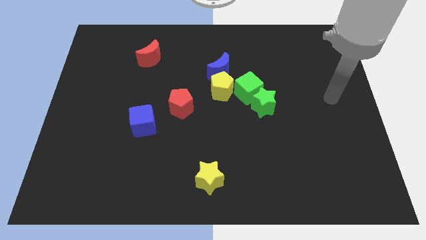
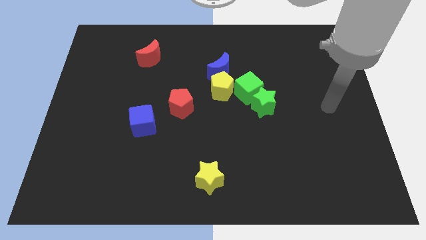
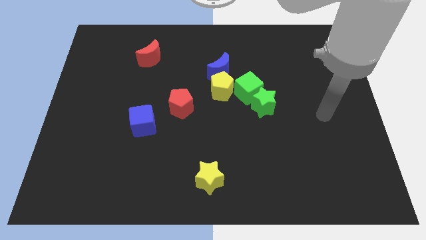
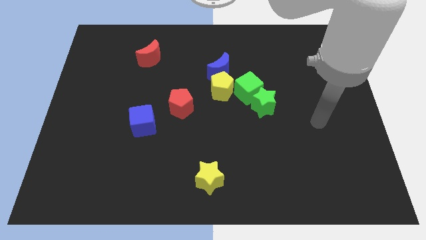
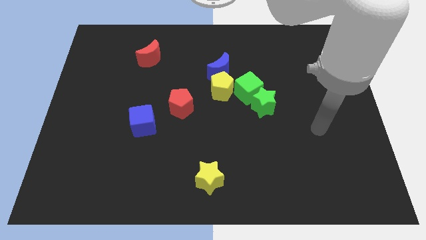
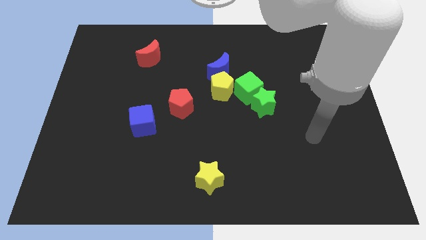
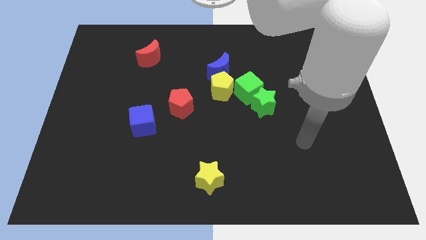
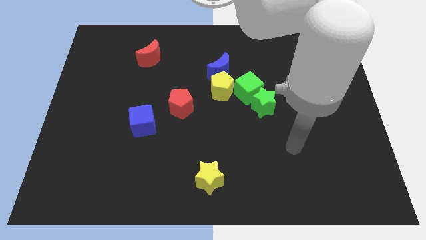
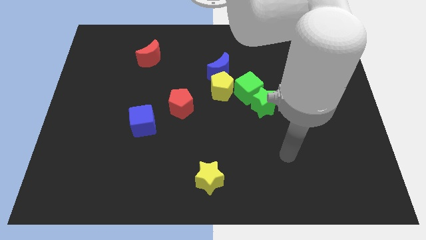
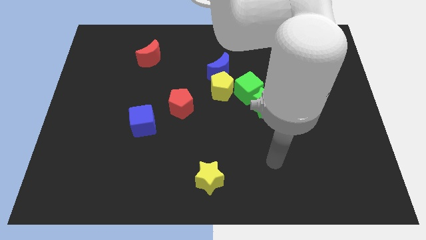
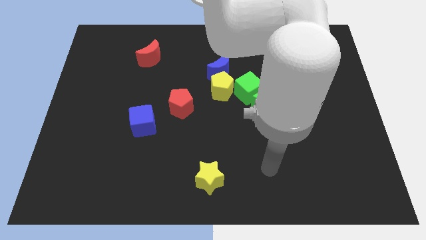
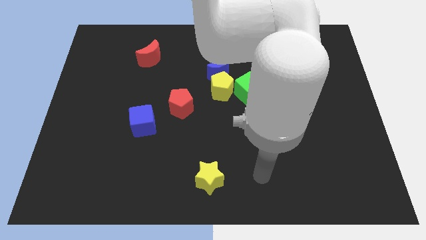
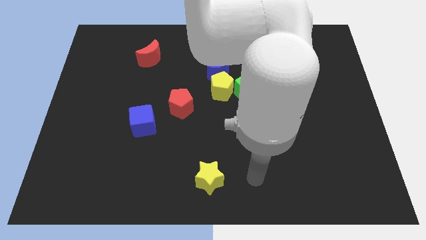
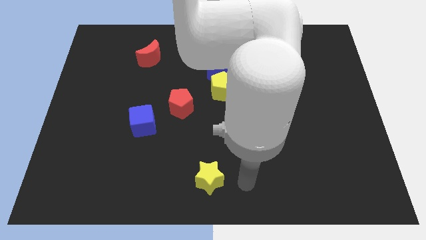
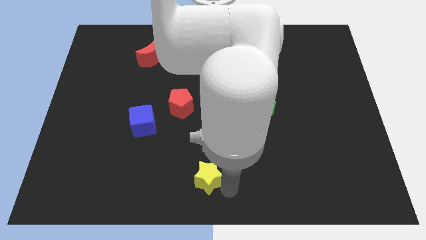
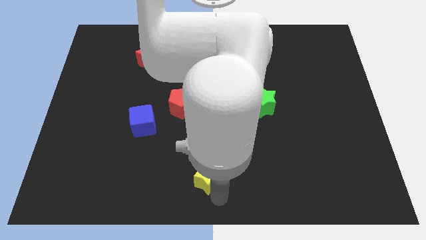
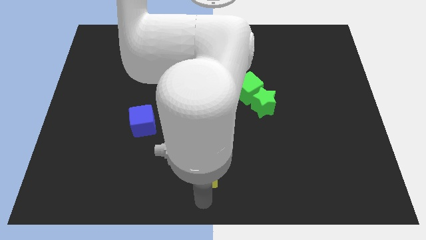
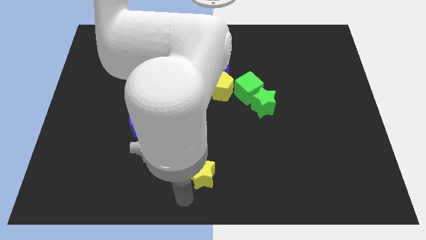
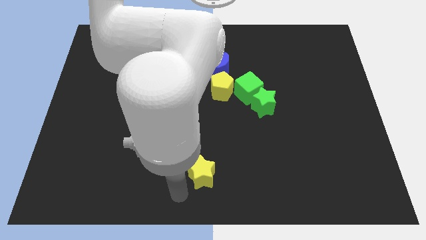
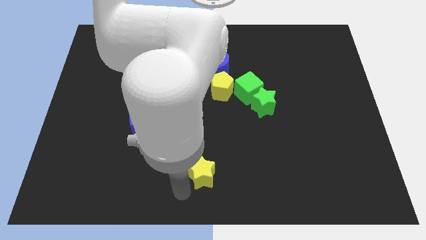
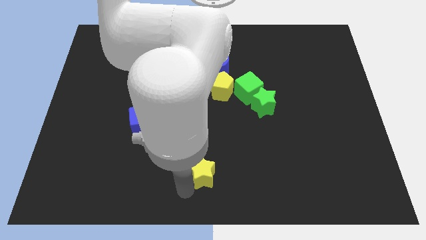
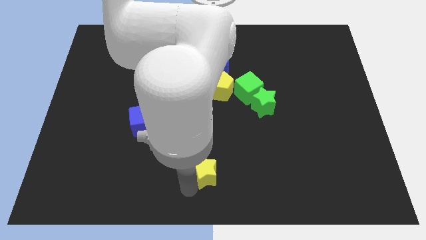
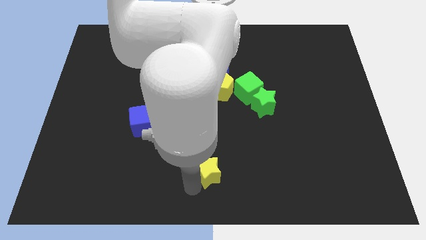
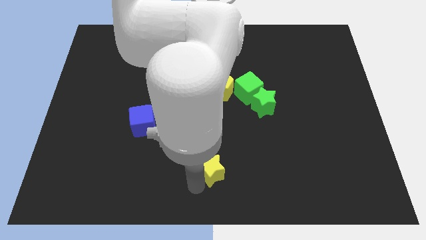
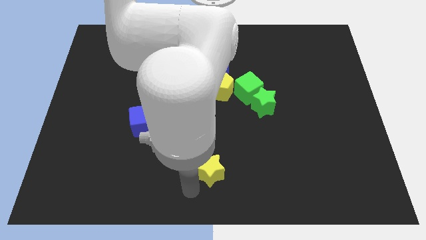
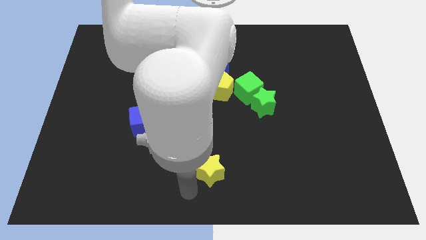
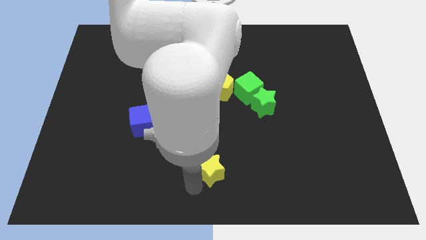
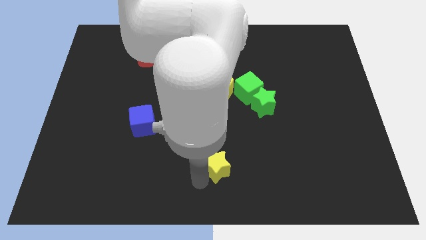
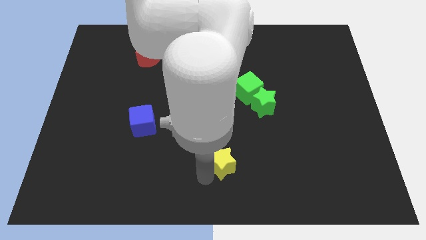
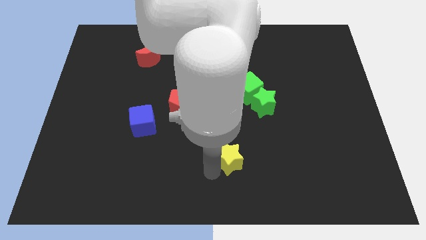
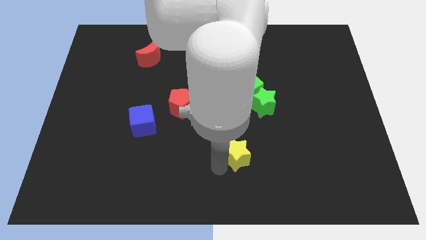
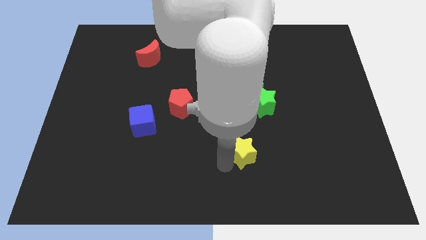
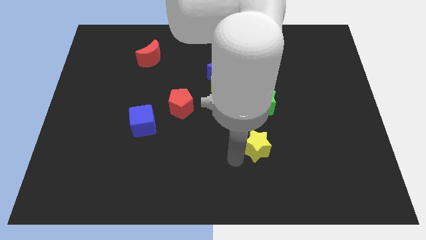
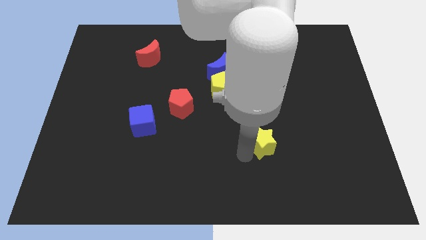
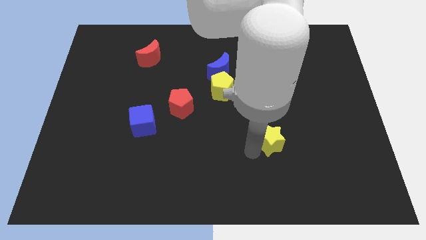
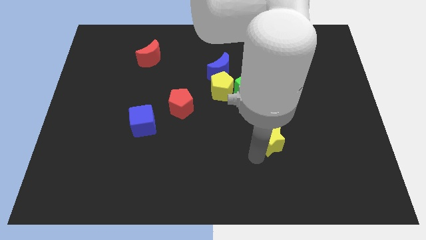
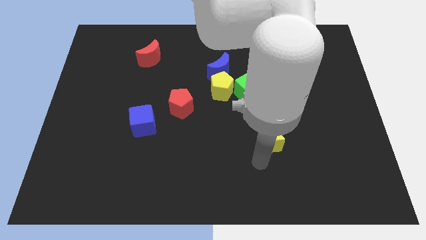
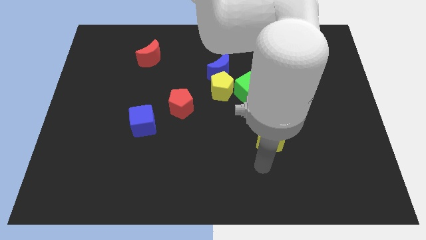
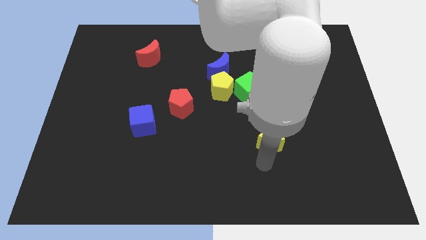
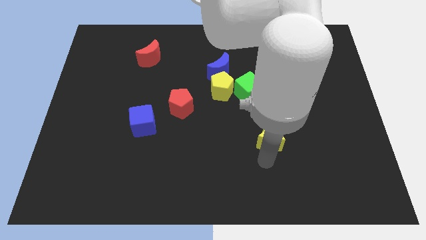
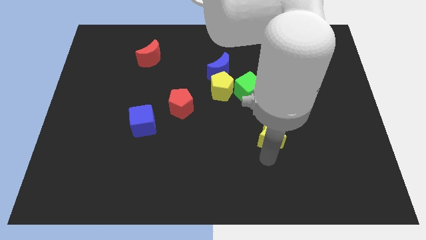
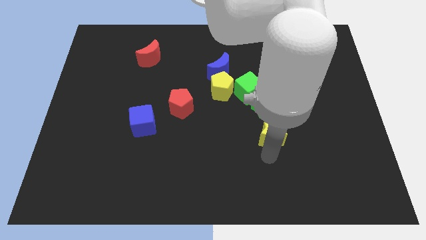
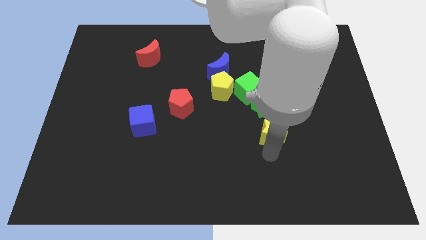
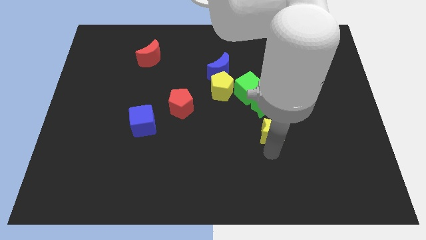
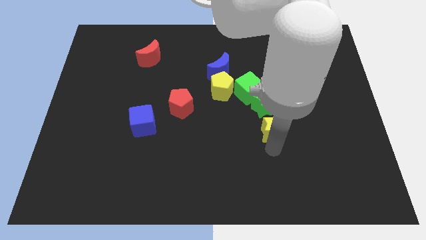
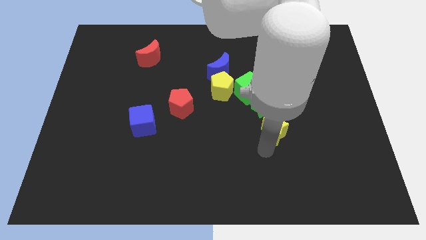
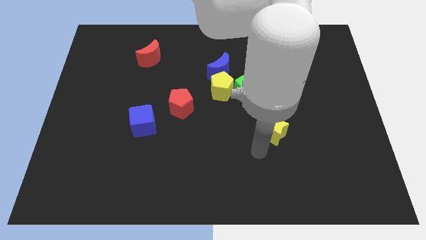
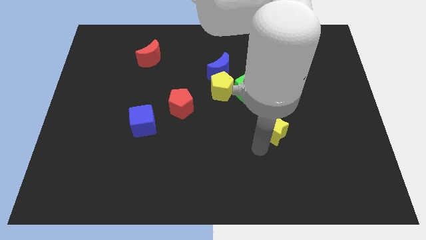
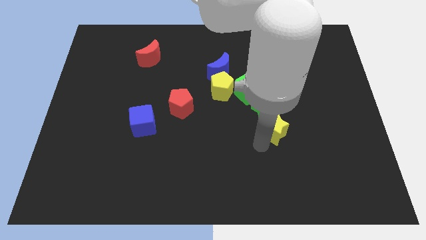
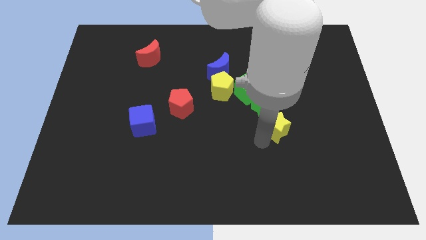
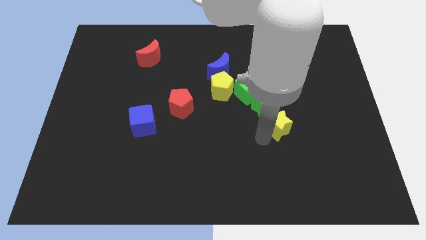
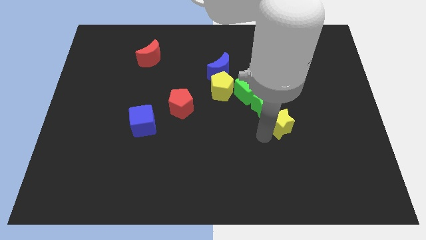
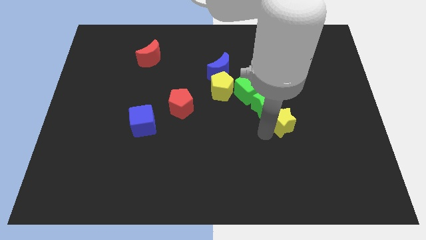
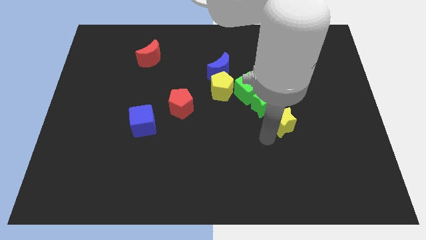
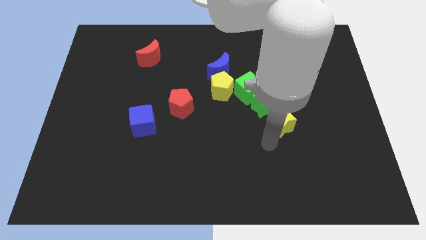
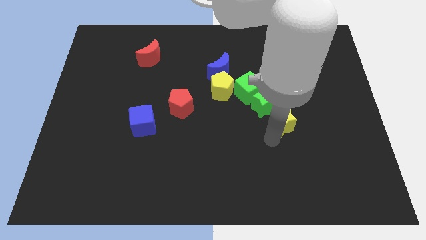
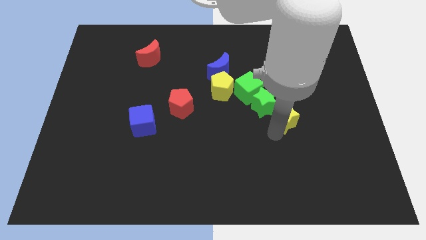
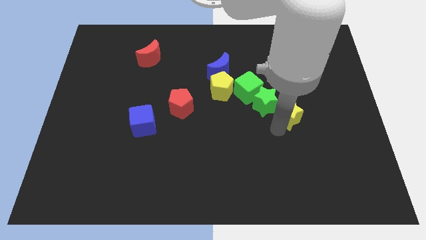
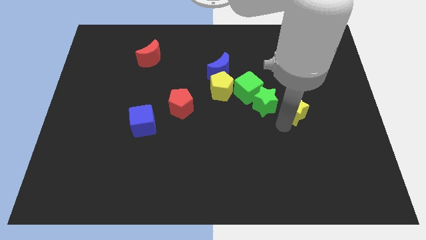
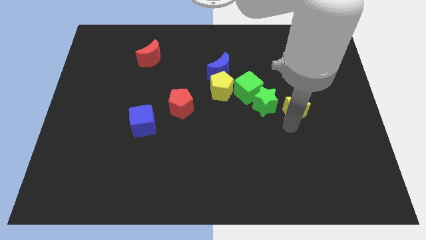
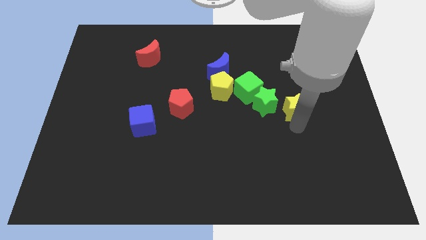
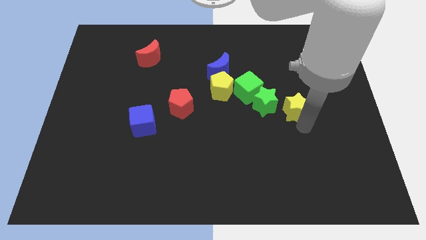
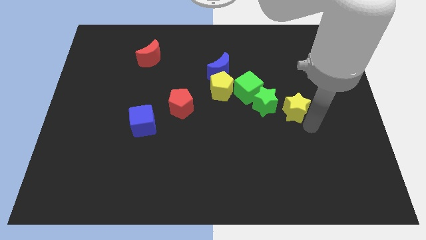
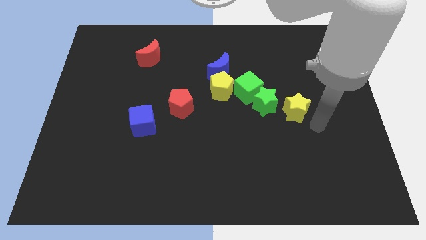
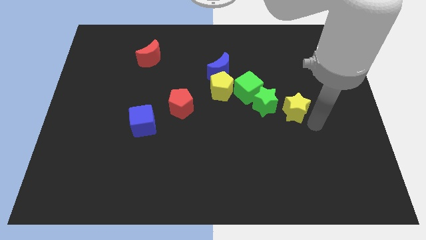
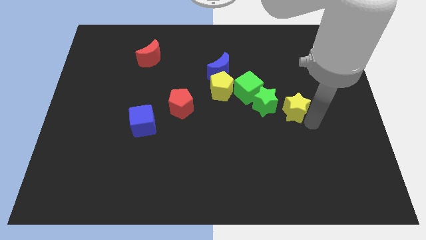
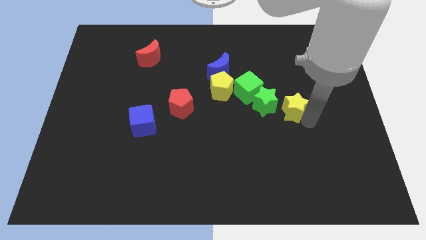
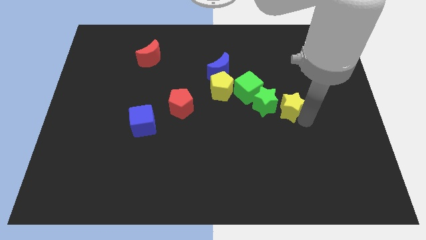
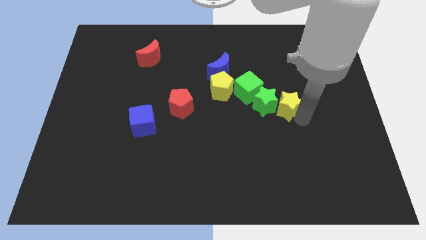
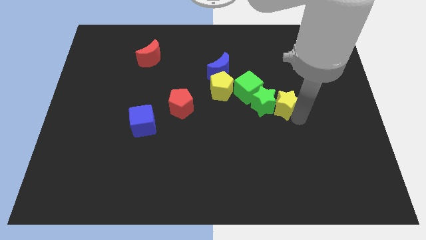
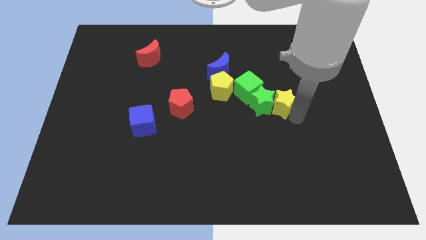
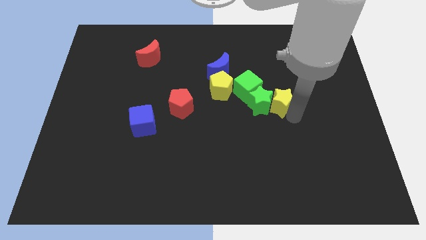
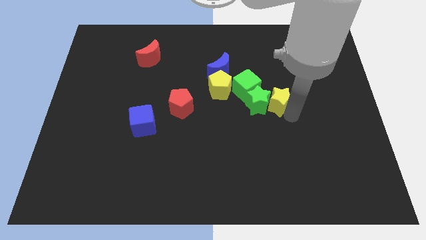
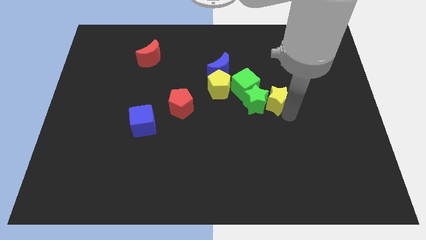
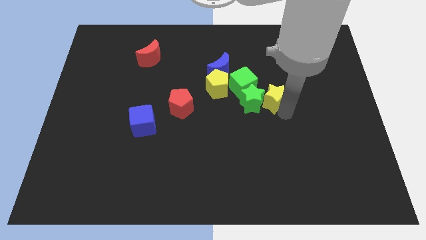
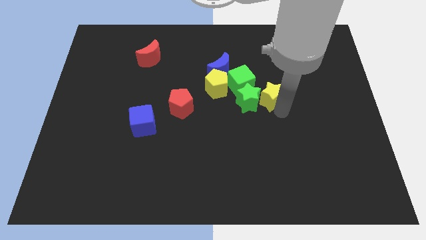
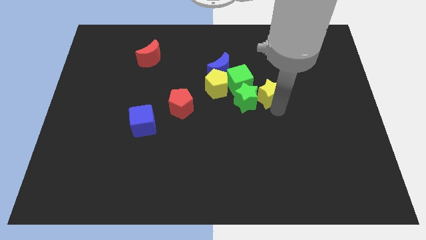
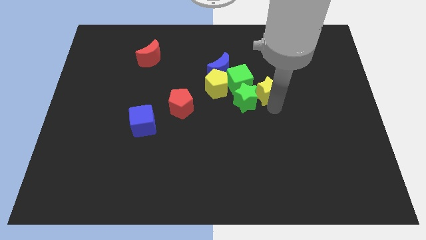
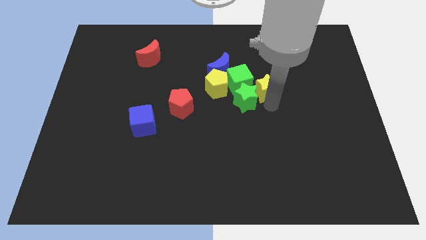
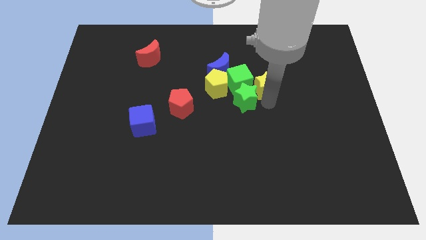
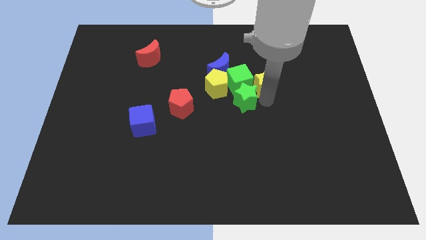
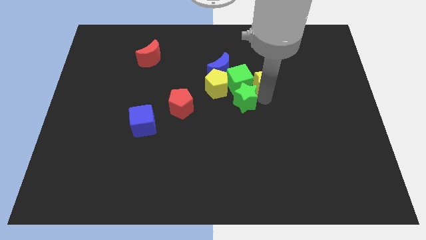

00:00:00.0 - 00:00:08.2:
move the yellow star to the top right side of the green cube
